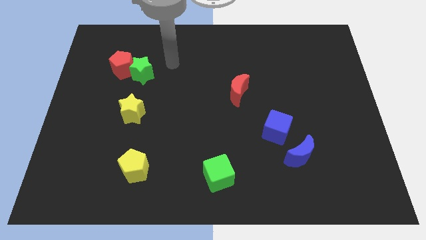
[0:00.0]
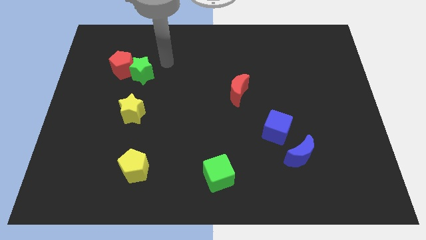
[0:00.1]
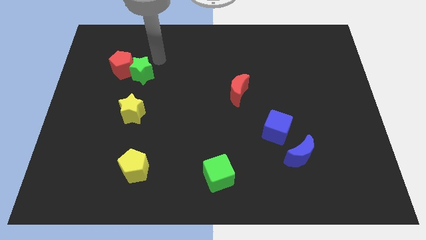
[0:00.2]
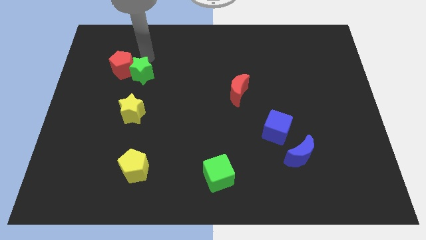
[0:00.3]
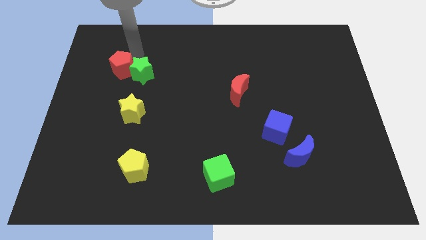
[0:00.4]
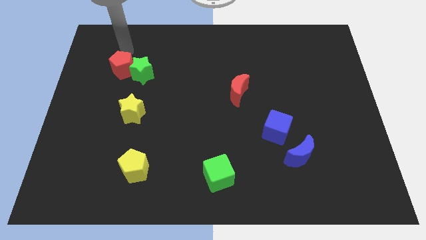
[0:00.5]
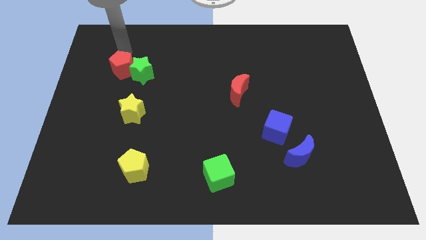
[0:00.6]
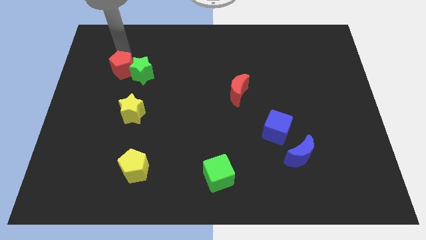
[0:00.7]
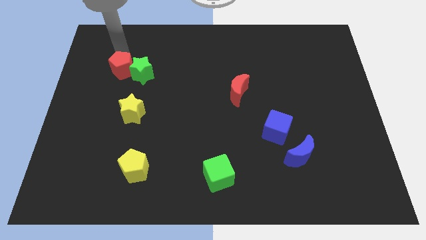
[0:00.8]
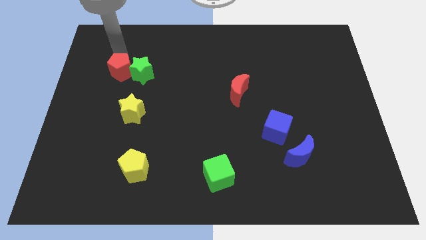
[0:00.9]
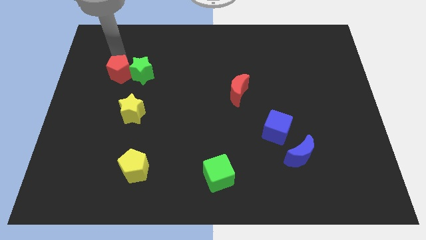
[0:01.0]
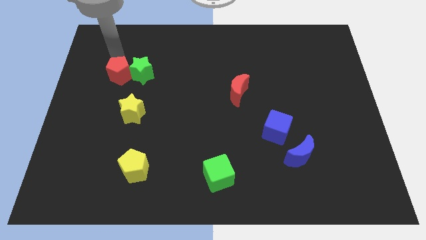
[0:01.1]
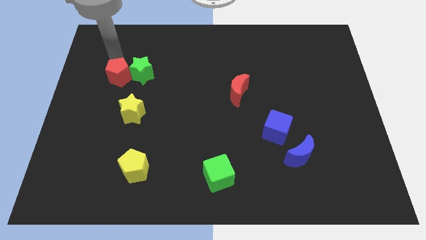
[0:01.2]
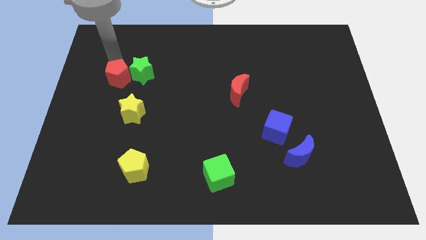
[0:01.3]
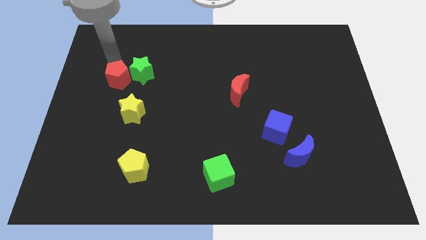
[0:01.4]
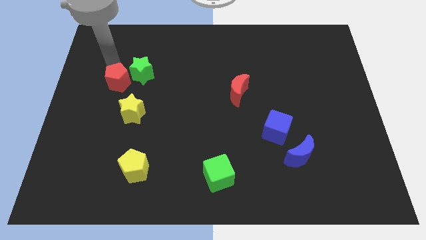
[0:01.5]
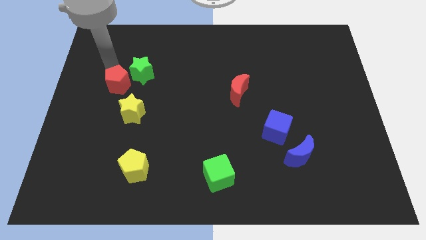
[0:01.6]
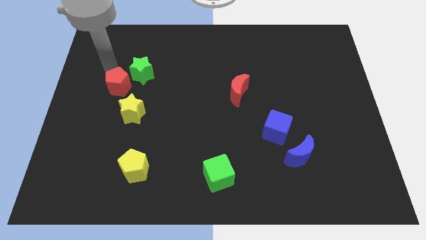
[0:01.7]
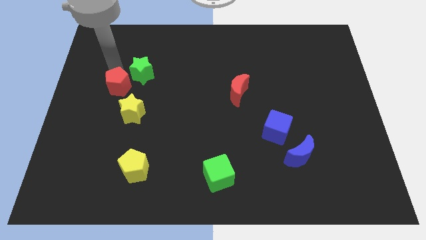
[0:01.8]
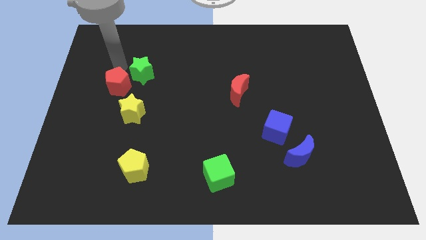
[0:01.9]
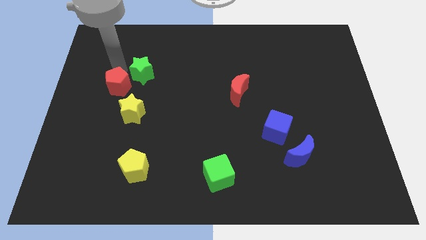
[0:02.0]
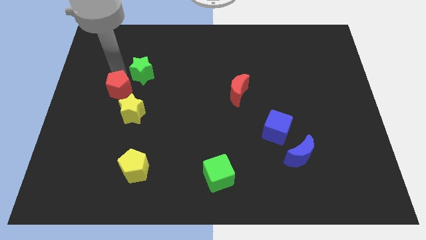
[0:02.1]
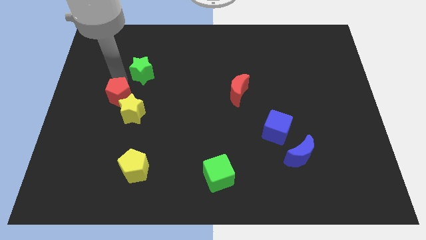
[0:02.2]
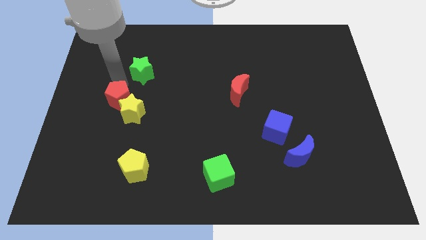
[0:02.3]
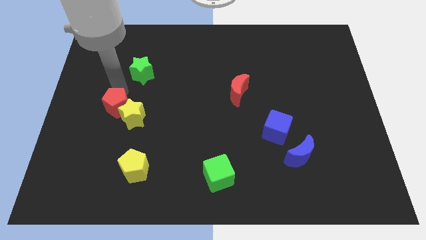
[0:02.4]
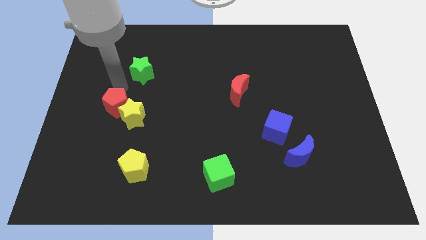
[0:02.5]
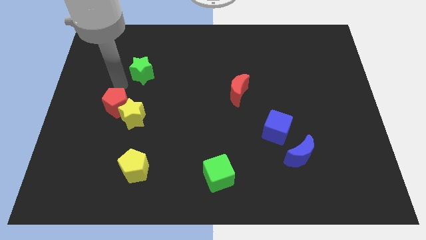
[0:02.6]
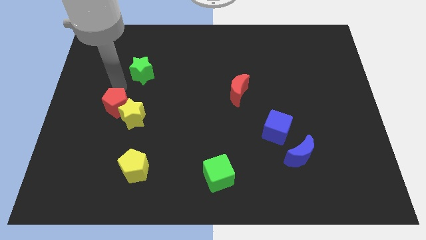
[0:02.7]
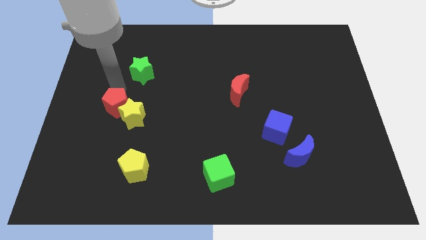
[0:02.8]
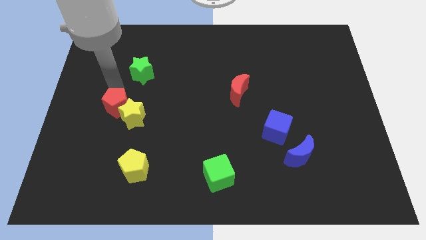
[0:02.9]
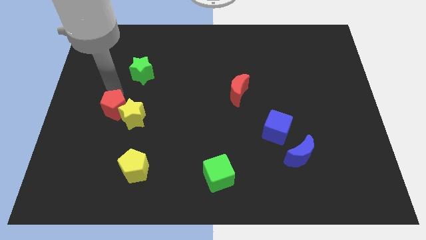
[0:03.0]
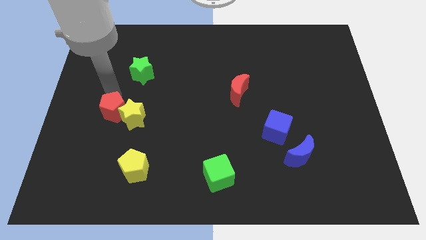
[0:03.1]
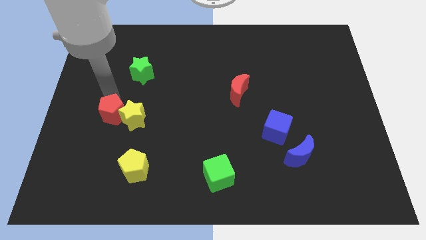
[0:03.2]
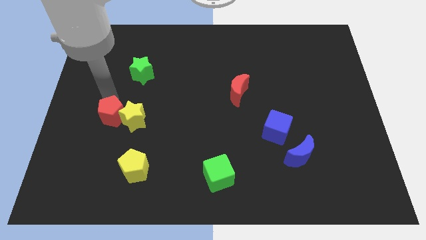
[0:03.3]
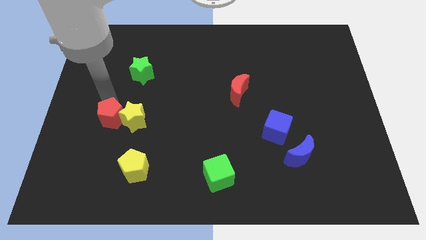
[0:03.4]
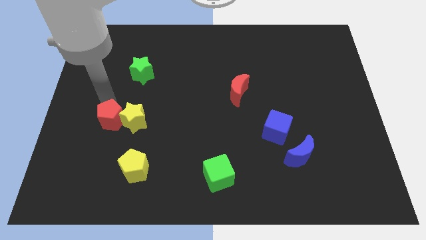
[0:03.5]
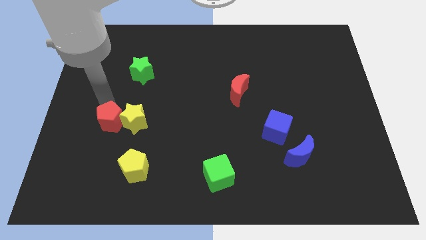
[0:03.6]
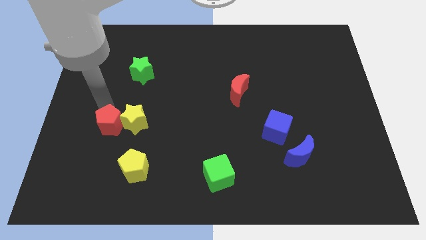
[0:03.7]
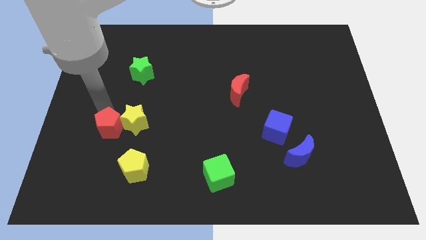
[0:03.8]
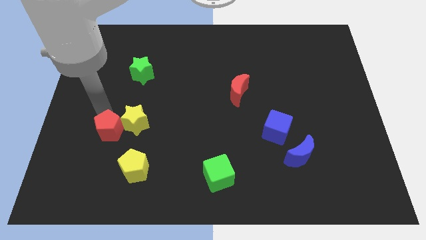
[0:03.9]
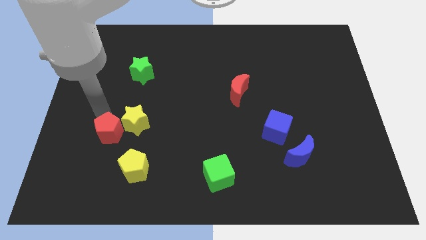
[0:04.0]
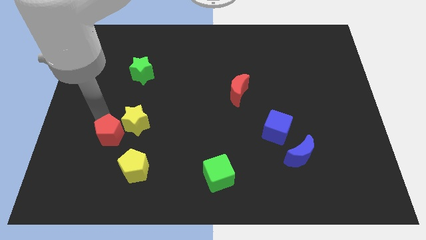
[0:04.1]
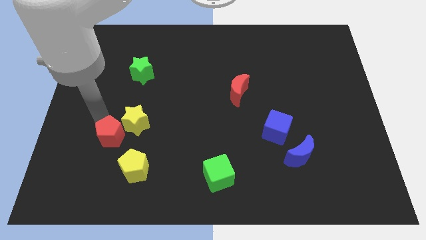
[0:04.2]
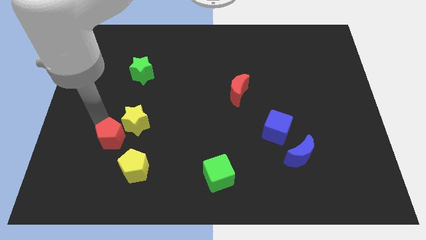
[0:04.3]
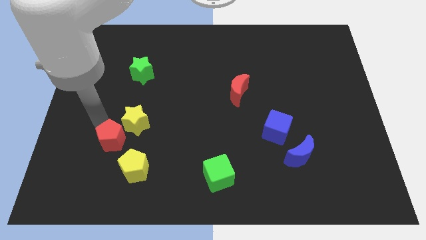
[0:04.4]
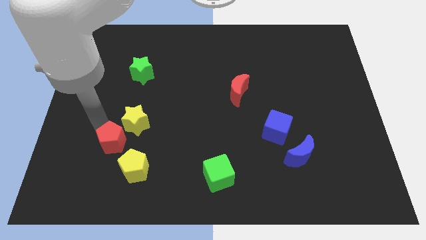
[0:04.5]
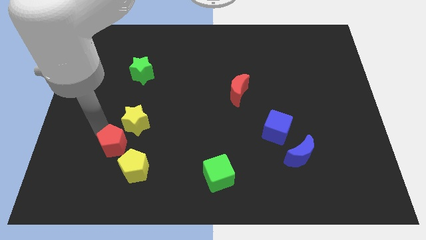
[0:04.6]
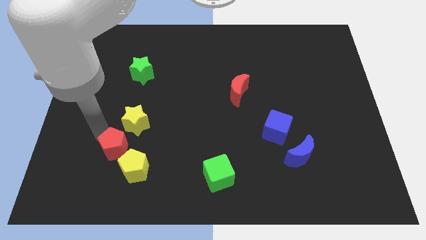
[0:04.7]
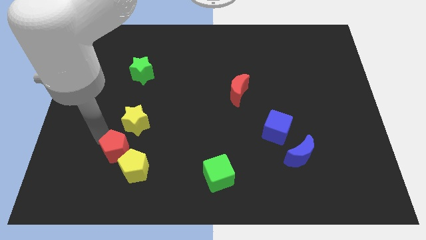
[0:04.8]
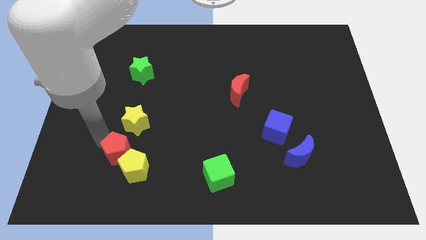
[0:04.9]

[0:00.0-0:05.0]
move the red pentagon towards the yellow pentagon

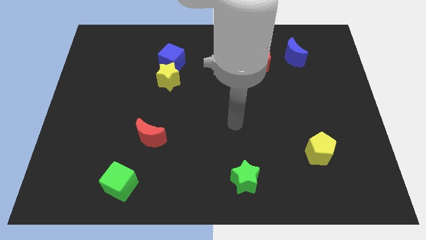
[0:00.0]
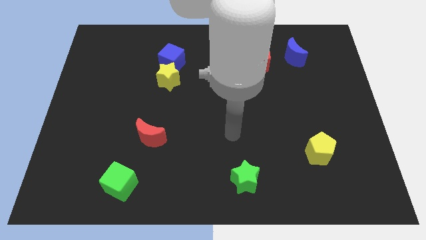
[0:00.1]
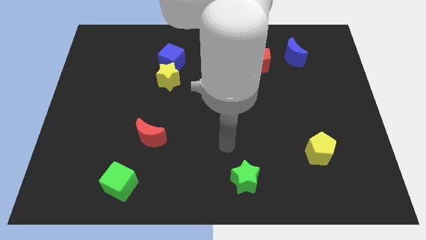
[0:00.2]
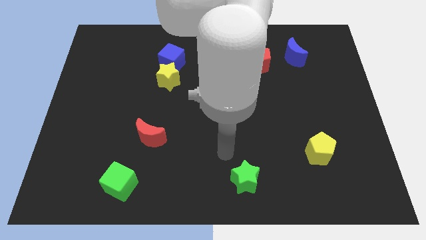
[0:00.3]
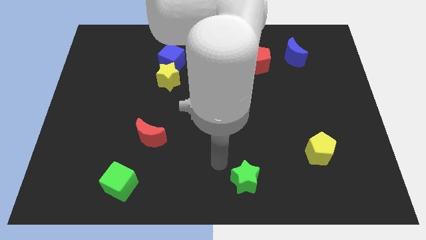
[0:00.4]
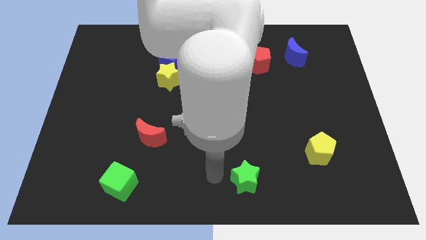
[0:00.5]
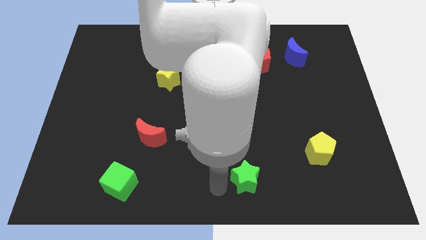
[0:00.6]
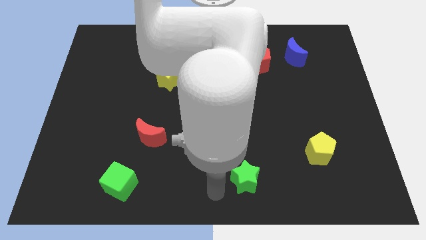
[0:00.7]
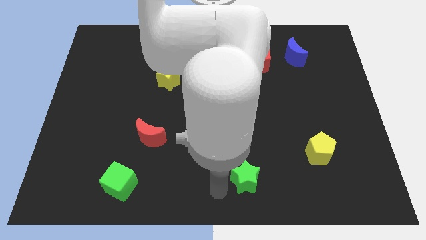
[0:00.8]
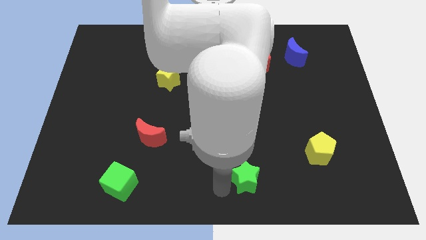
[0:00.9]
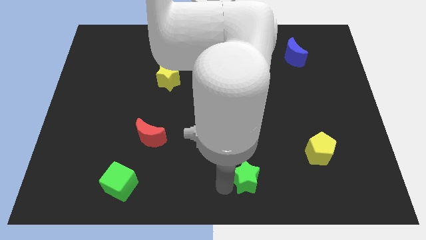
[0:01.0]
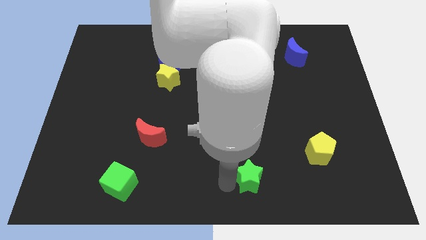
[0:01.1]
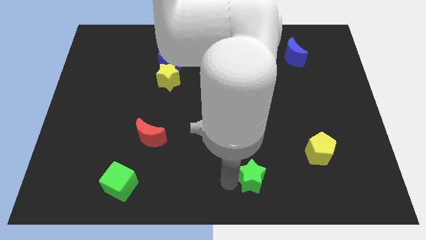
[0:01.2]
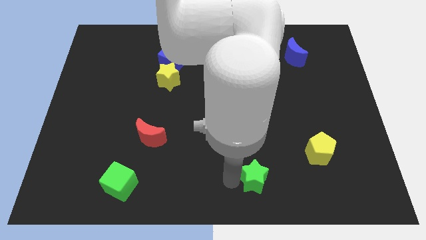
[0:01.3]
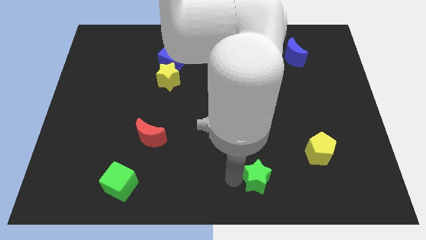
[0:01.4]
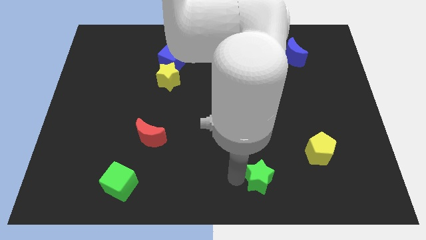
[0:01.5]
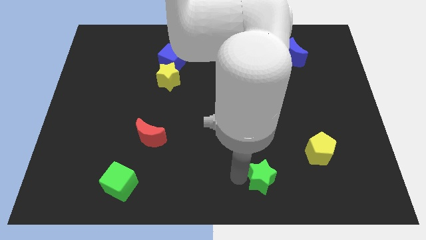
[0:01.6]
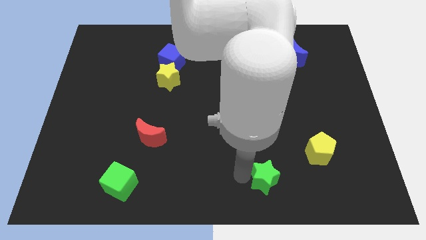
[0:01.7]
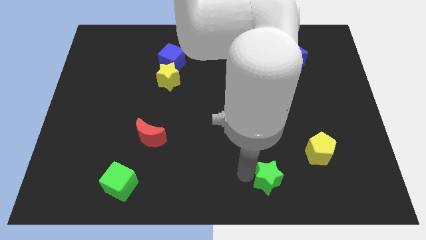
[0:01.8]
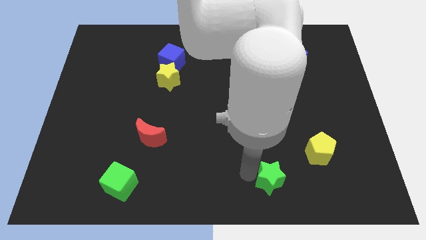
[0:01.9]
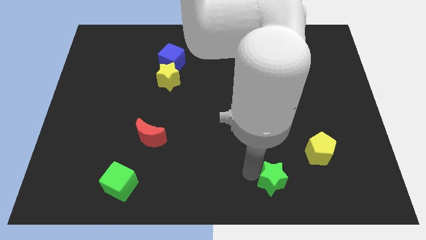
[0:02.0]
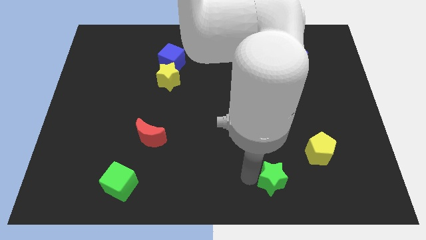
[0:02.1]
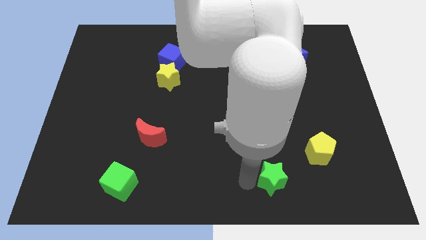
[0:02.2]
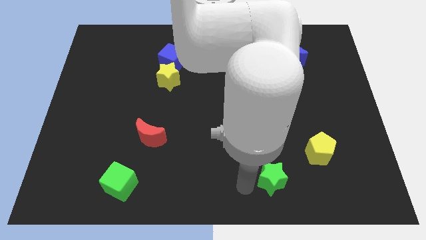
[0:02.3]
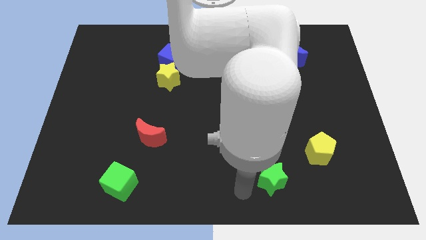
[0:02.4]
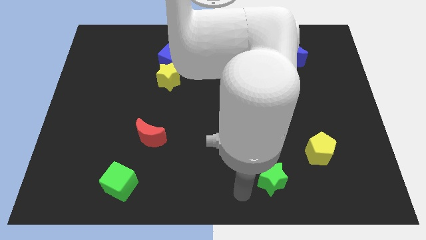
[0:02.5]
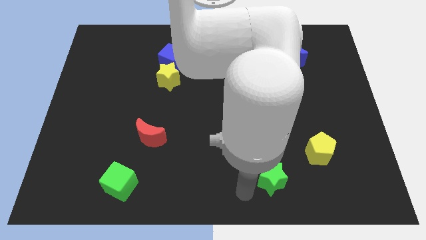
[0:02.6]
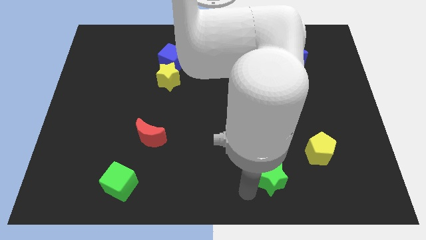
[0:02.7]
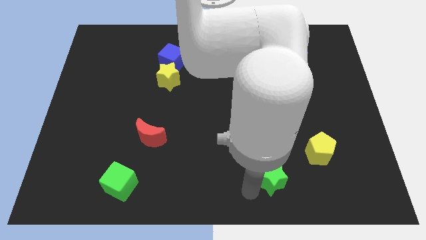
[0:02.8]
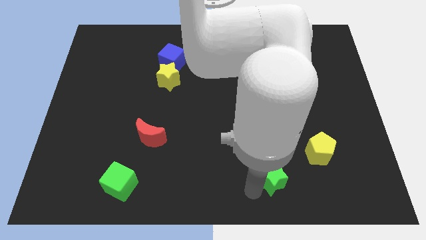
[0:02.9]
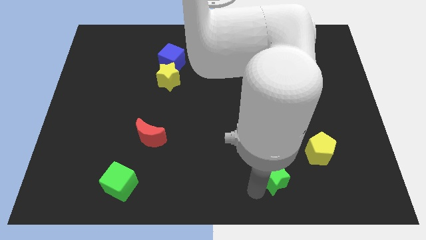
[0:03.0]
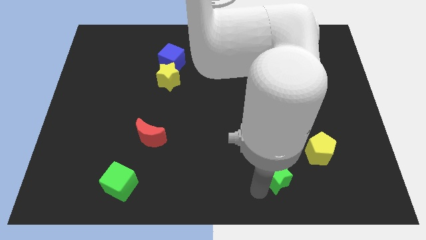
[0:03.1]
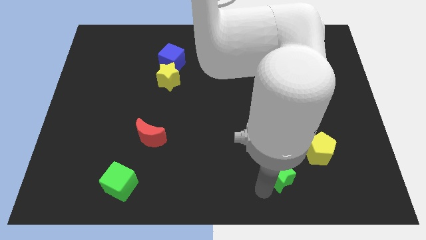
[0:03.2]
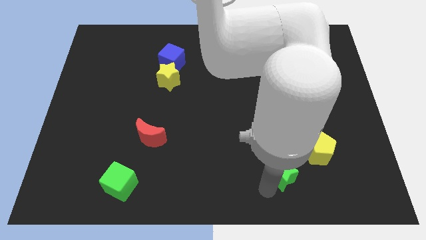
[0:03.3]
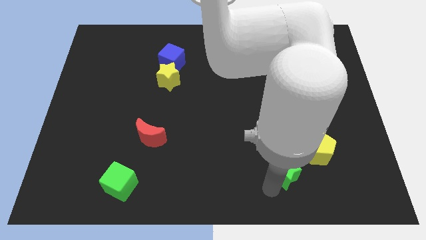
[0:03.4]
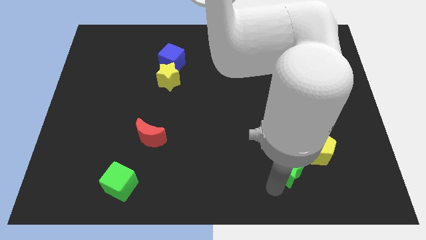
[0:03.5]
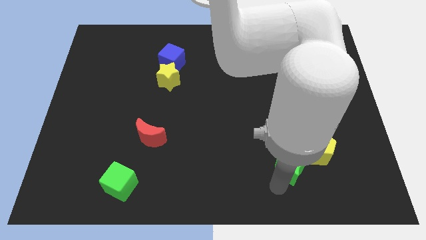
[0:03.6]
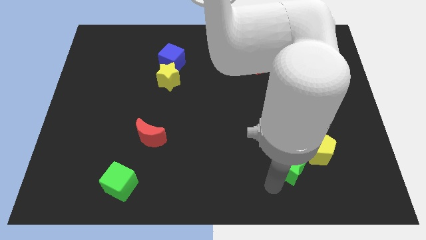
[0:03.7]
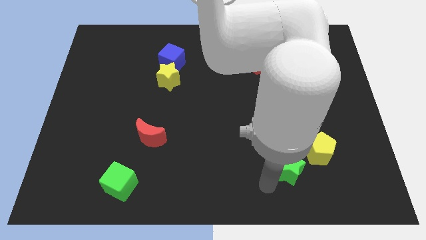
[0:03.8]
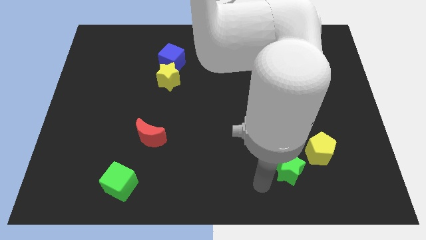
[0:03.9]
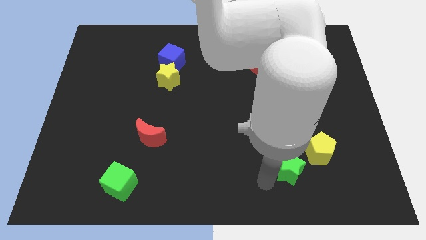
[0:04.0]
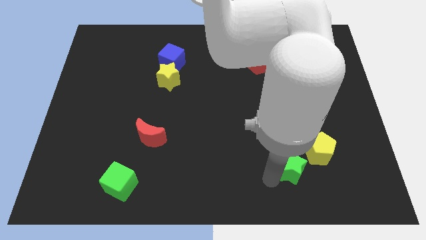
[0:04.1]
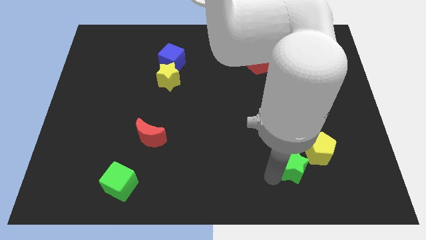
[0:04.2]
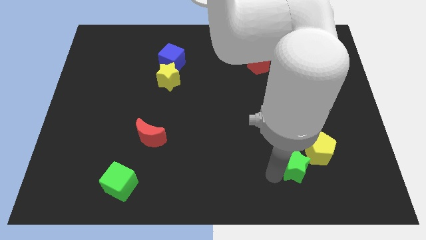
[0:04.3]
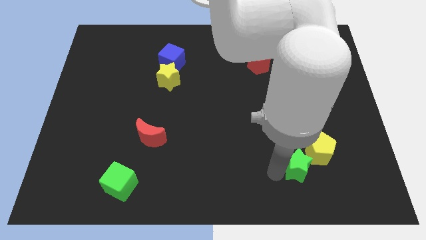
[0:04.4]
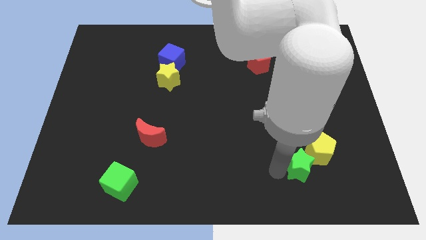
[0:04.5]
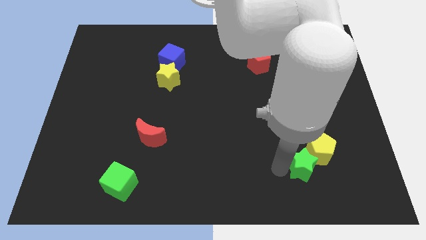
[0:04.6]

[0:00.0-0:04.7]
move the green star towards the yellow pentagon
